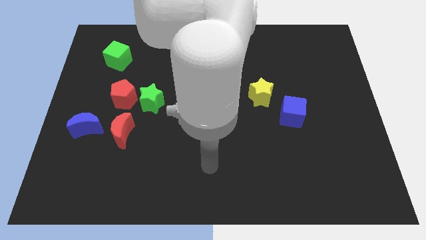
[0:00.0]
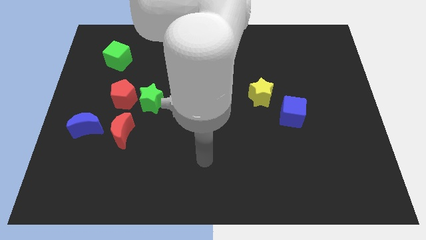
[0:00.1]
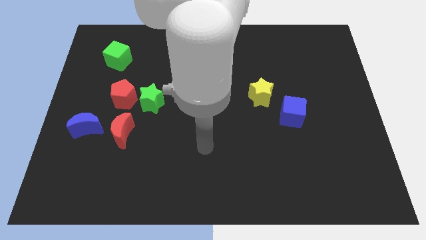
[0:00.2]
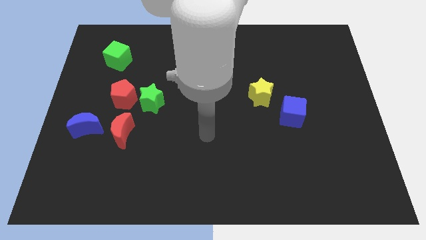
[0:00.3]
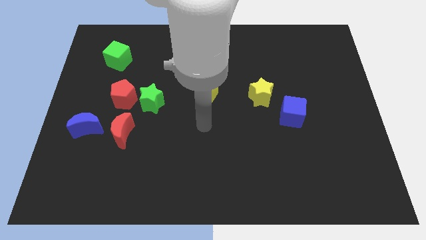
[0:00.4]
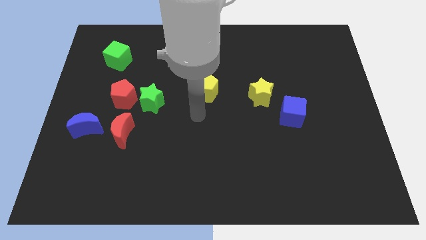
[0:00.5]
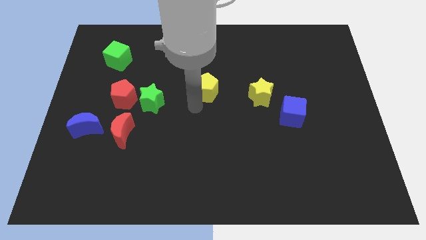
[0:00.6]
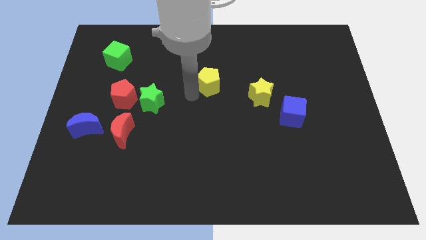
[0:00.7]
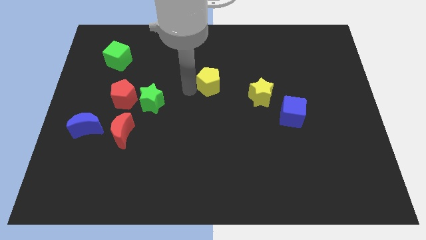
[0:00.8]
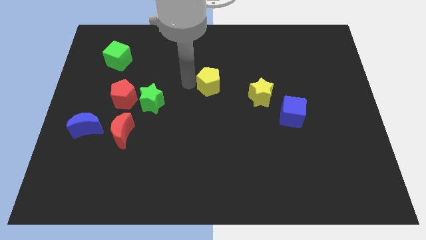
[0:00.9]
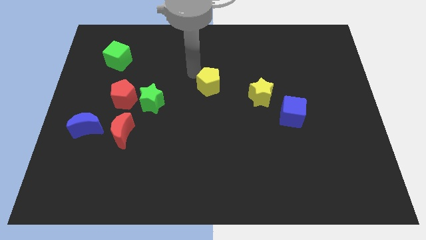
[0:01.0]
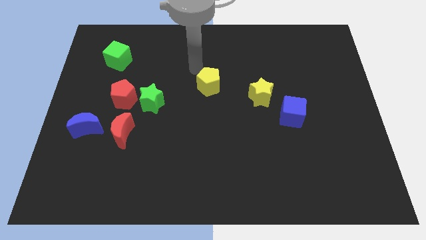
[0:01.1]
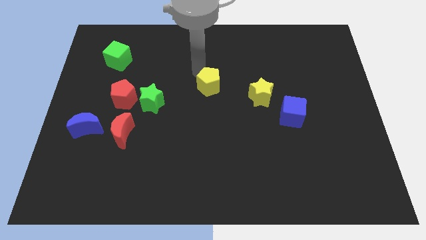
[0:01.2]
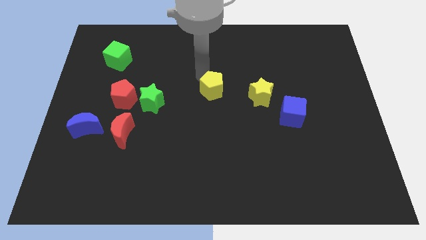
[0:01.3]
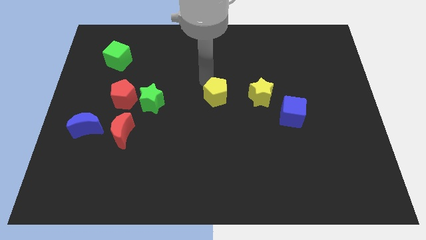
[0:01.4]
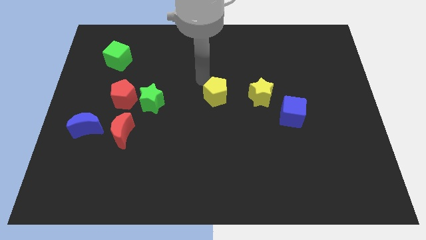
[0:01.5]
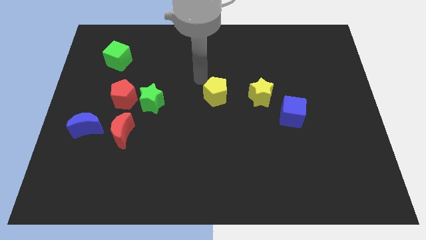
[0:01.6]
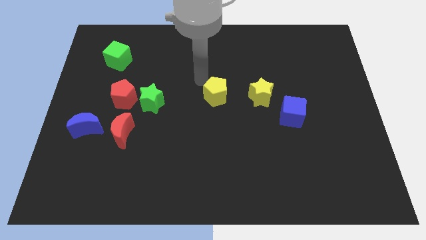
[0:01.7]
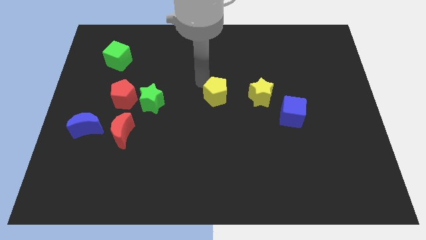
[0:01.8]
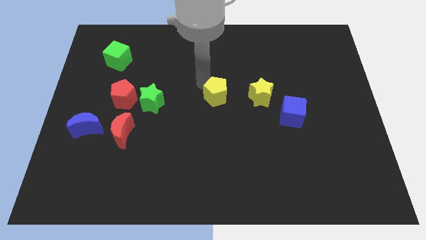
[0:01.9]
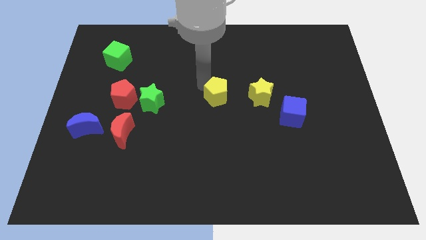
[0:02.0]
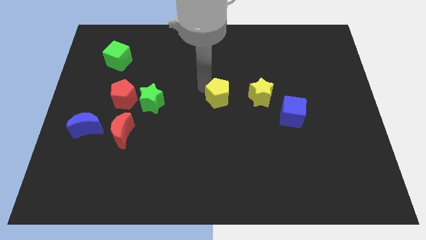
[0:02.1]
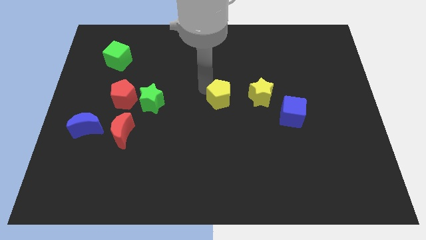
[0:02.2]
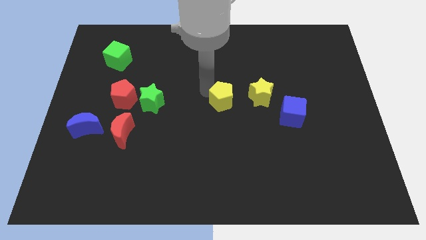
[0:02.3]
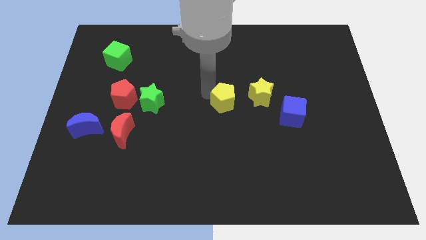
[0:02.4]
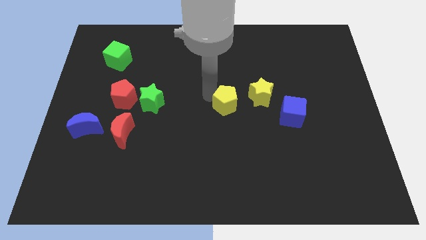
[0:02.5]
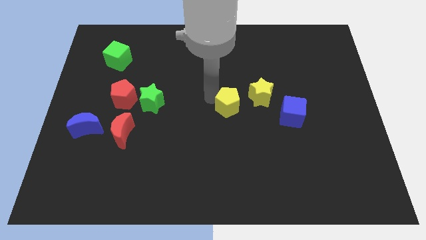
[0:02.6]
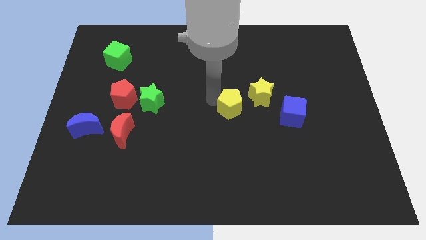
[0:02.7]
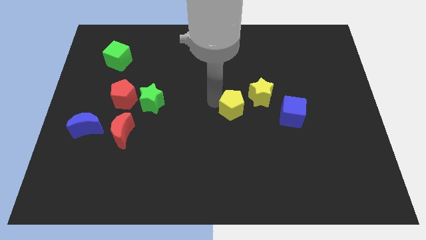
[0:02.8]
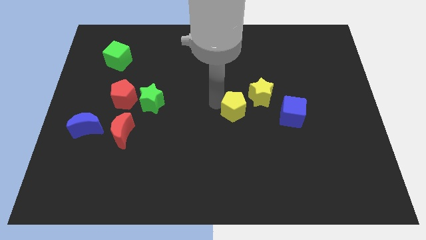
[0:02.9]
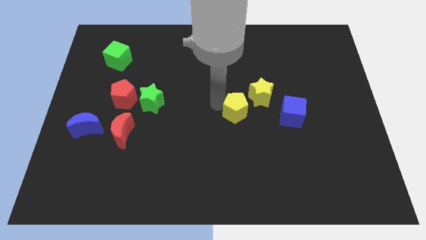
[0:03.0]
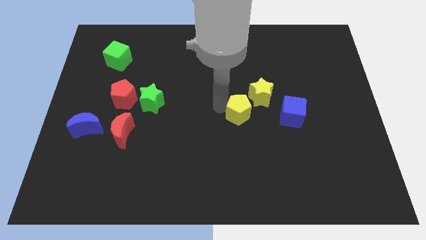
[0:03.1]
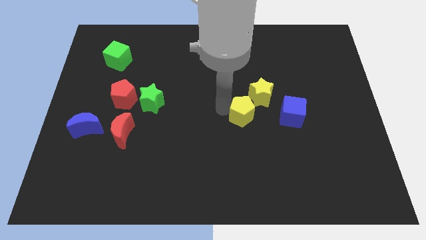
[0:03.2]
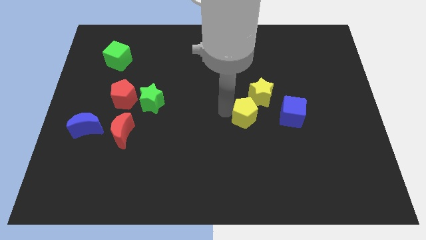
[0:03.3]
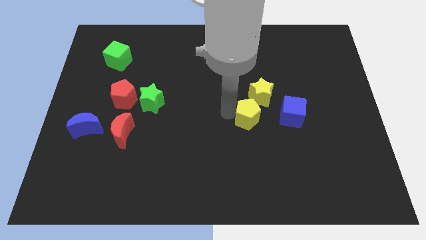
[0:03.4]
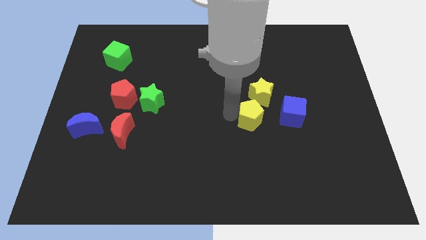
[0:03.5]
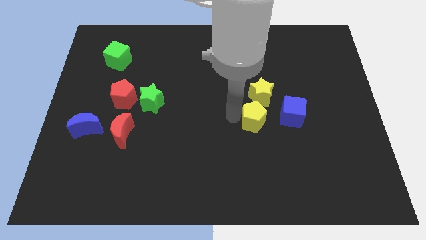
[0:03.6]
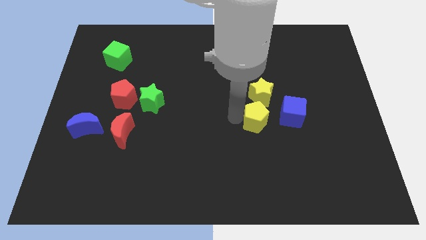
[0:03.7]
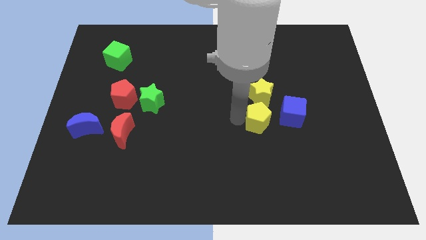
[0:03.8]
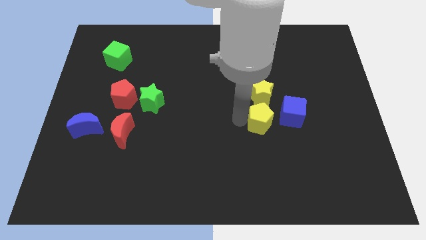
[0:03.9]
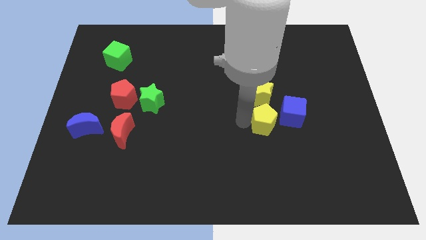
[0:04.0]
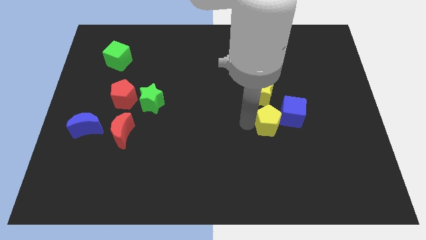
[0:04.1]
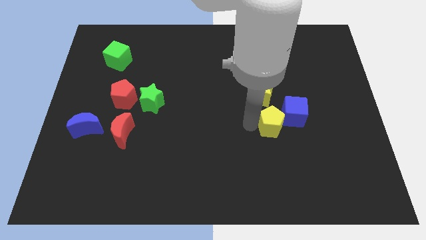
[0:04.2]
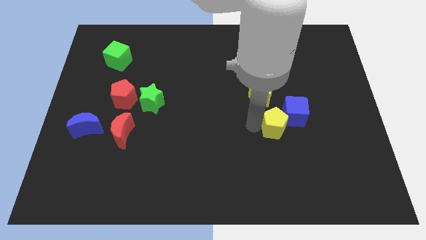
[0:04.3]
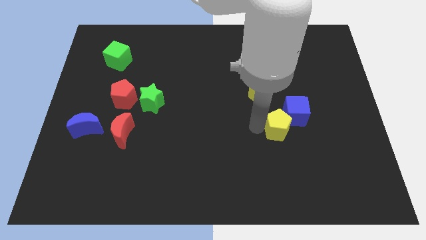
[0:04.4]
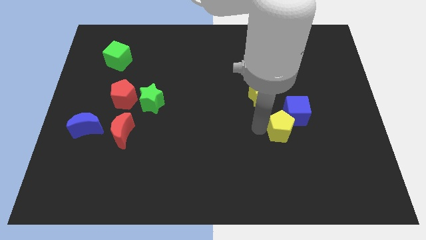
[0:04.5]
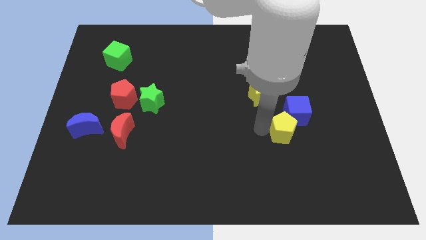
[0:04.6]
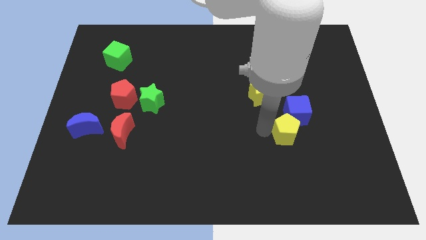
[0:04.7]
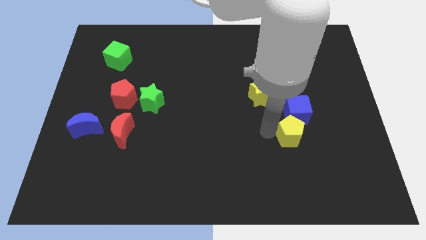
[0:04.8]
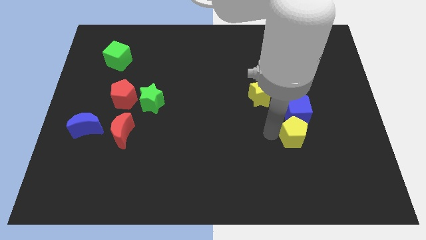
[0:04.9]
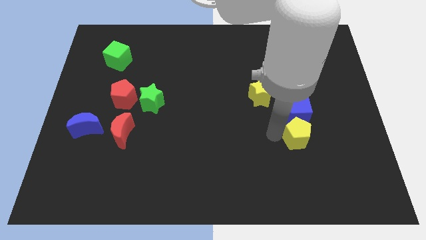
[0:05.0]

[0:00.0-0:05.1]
slide the yellow pentagon to the bottom right side of the blue cube

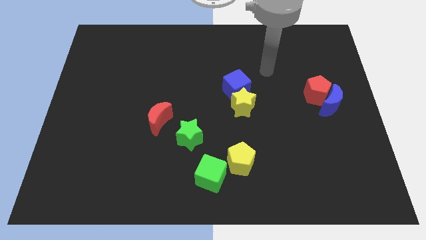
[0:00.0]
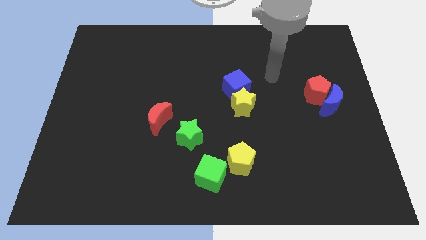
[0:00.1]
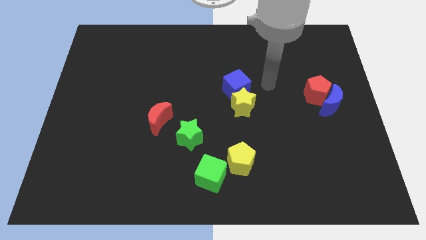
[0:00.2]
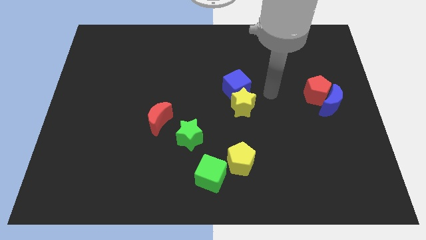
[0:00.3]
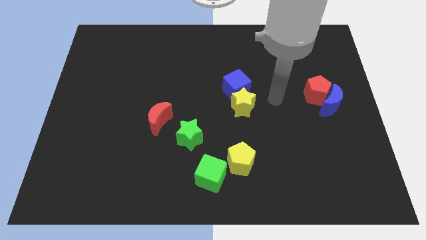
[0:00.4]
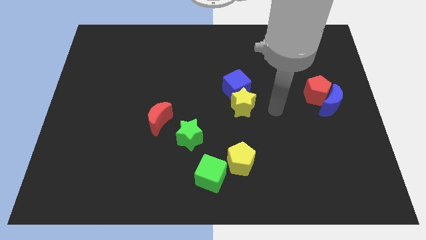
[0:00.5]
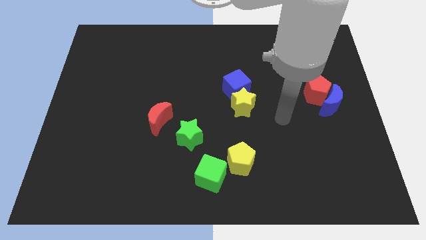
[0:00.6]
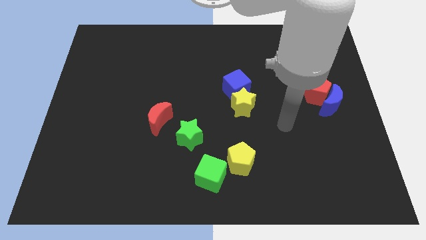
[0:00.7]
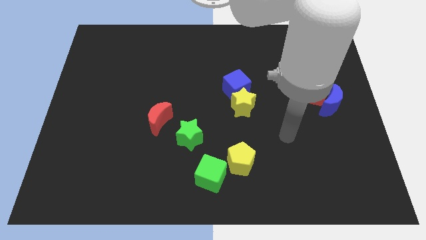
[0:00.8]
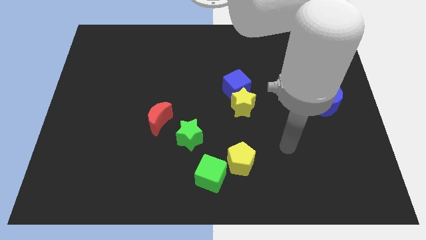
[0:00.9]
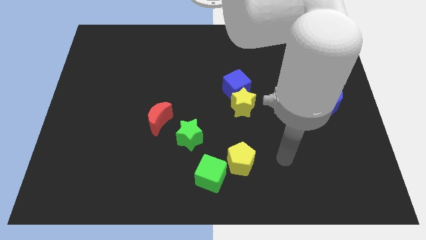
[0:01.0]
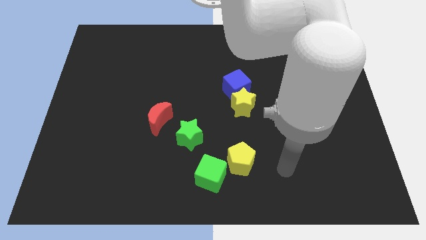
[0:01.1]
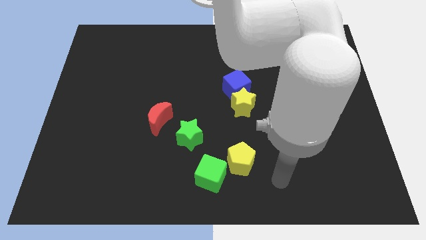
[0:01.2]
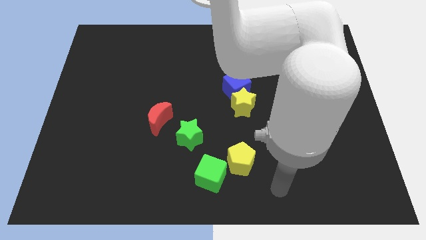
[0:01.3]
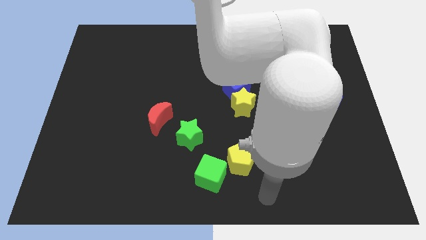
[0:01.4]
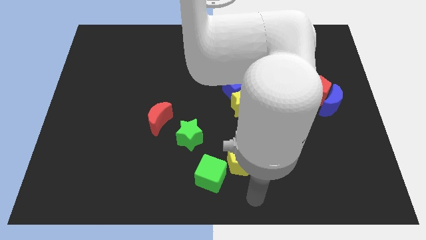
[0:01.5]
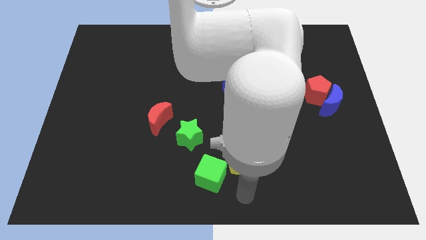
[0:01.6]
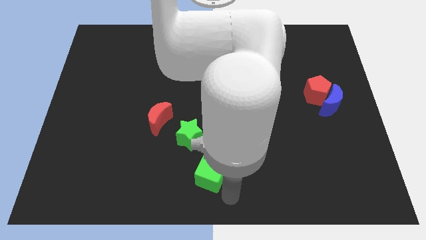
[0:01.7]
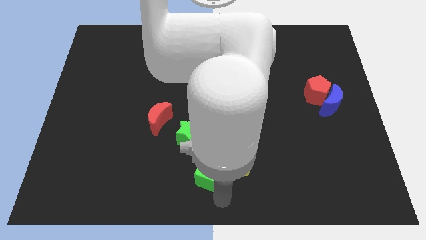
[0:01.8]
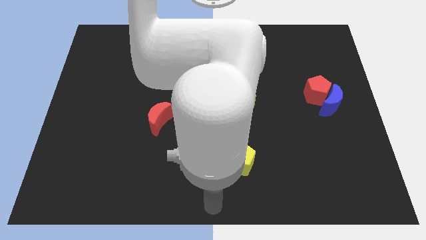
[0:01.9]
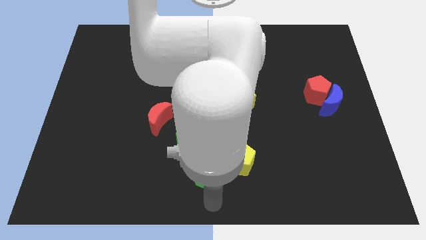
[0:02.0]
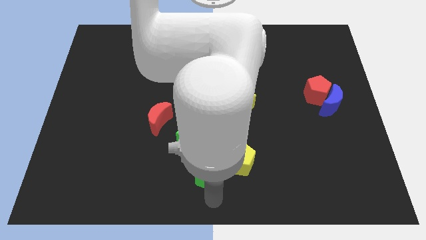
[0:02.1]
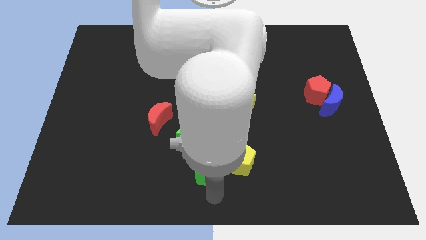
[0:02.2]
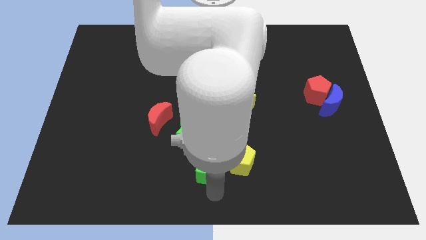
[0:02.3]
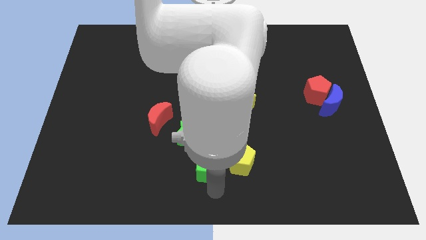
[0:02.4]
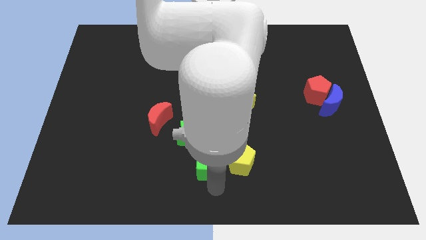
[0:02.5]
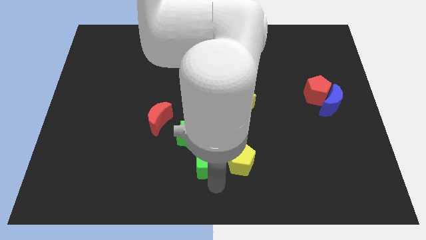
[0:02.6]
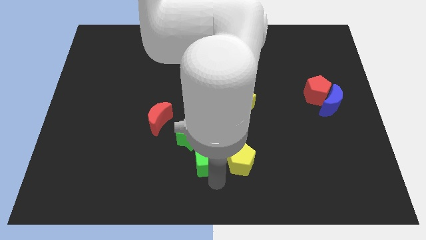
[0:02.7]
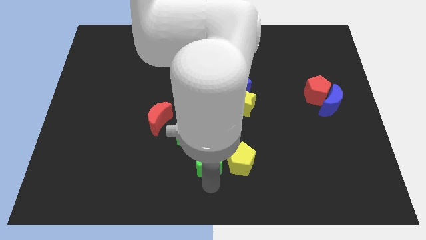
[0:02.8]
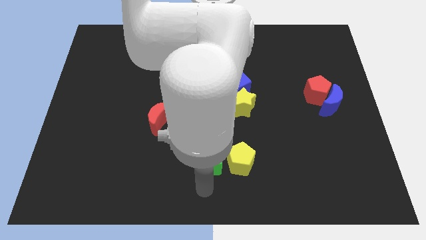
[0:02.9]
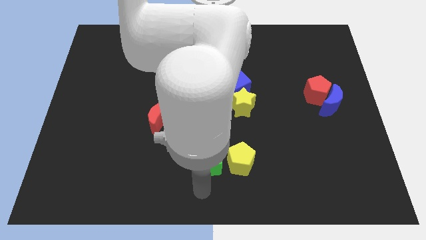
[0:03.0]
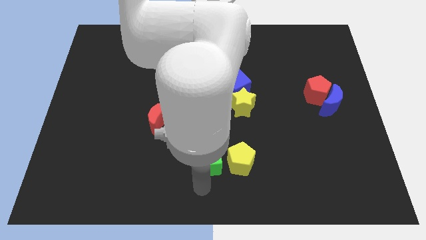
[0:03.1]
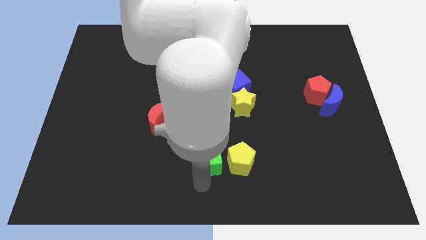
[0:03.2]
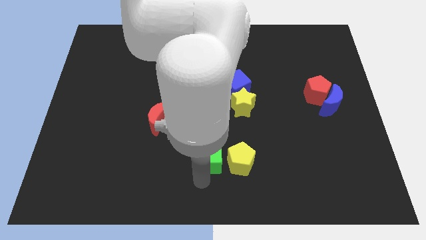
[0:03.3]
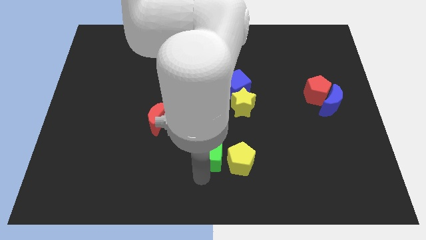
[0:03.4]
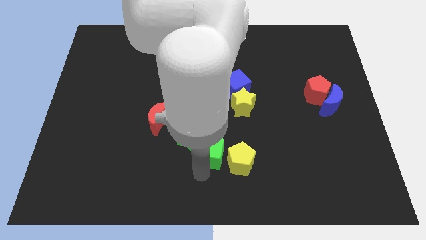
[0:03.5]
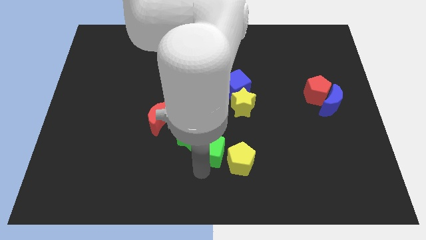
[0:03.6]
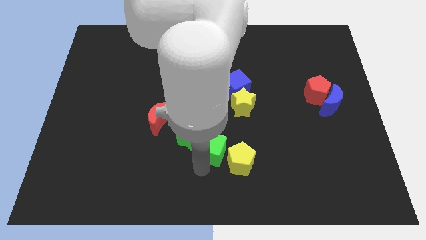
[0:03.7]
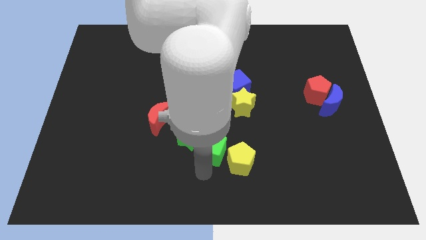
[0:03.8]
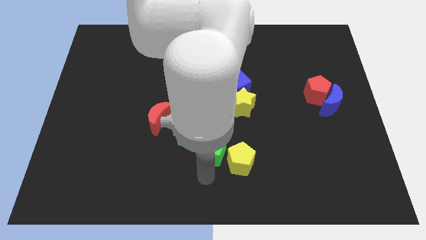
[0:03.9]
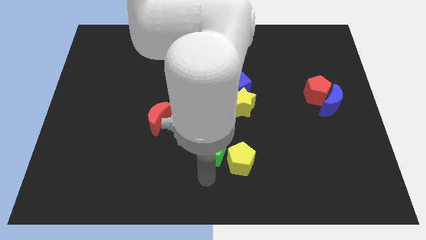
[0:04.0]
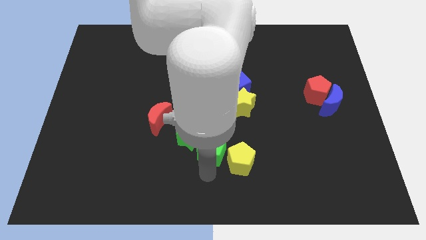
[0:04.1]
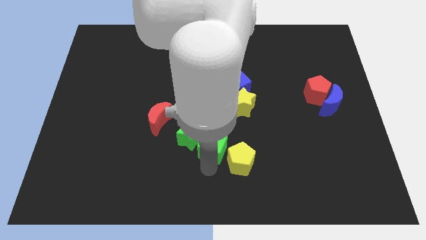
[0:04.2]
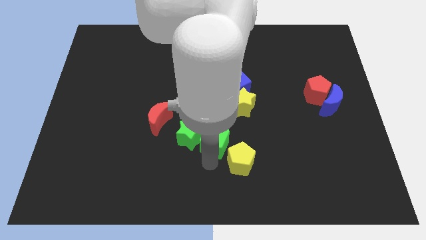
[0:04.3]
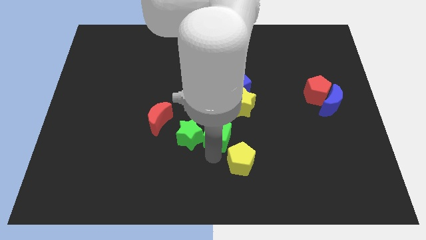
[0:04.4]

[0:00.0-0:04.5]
push the green cube right of the red moon
